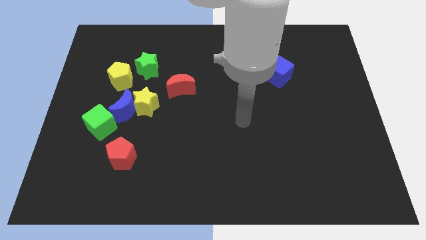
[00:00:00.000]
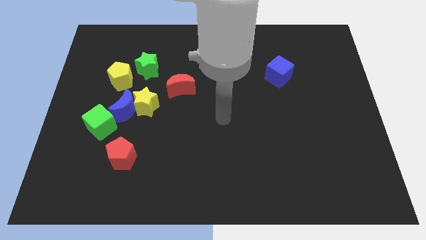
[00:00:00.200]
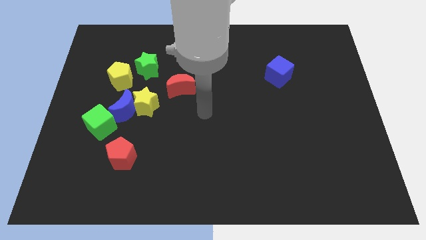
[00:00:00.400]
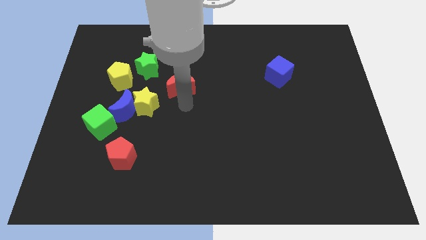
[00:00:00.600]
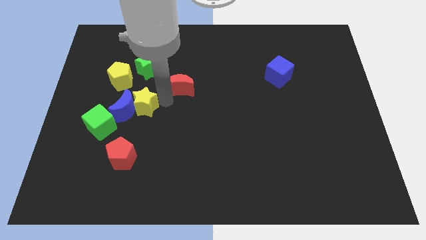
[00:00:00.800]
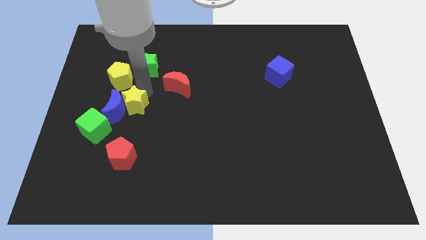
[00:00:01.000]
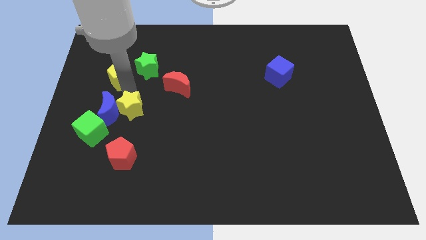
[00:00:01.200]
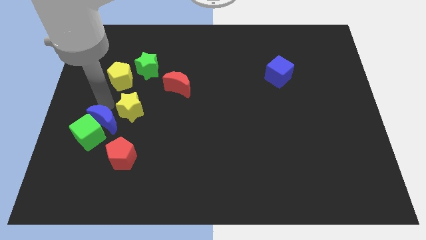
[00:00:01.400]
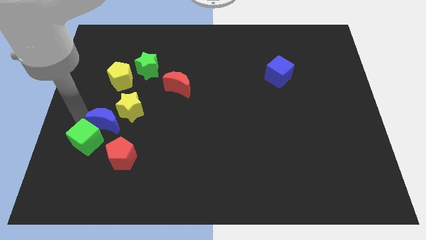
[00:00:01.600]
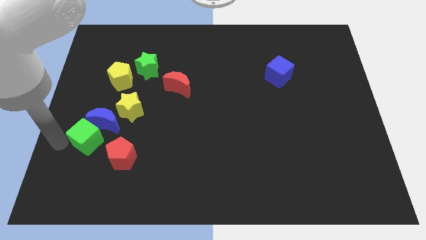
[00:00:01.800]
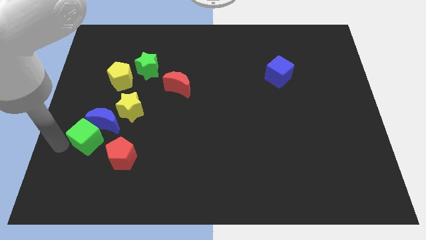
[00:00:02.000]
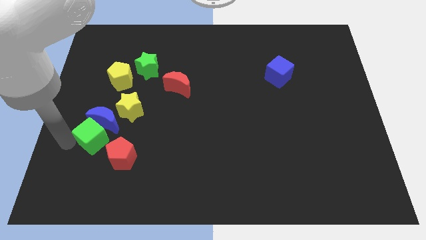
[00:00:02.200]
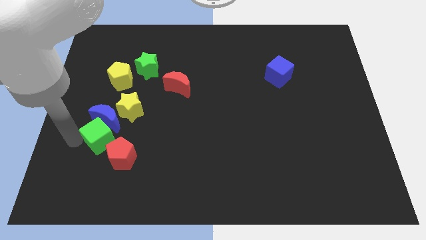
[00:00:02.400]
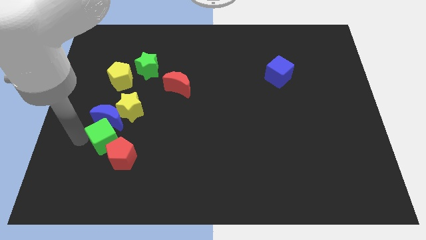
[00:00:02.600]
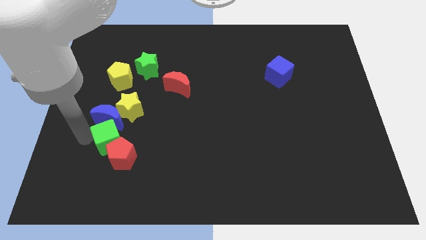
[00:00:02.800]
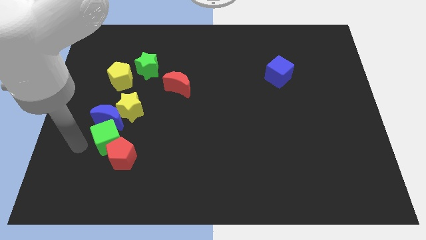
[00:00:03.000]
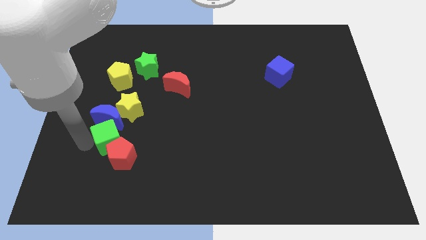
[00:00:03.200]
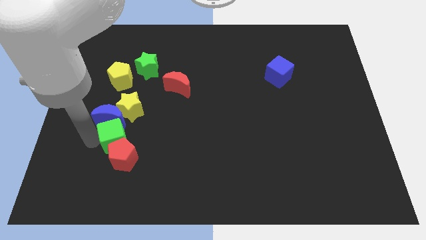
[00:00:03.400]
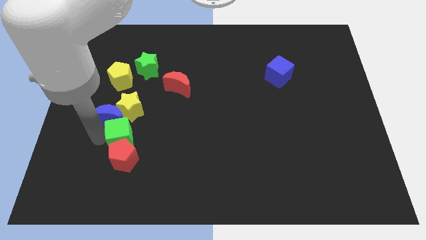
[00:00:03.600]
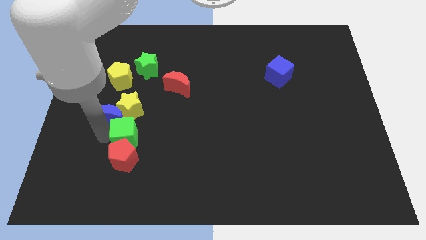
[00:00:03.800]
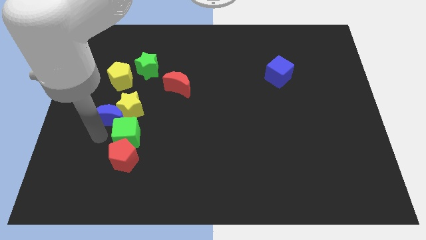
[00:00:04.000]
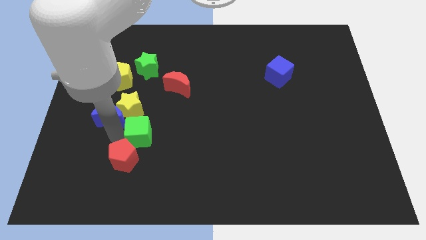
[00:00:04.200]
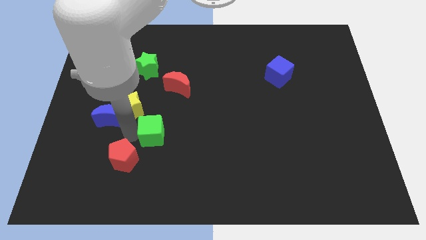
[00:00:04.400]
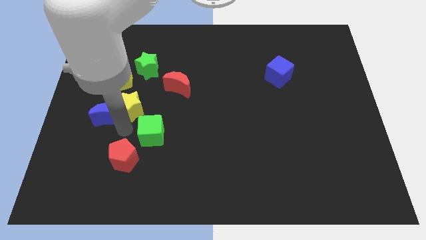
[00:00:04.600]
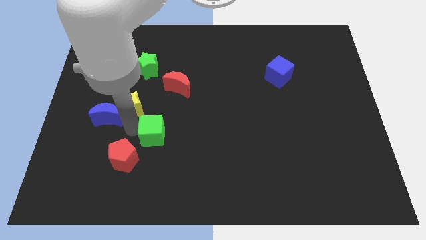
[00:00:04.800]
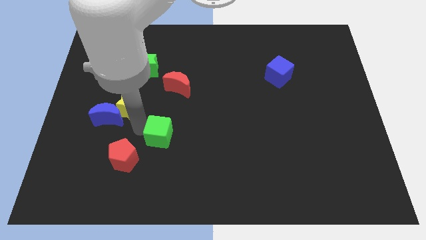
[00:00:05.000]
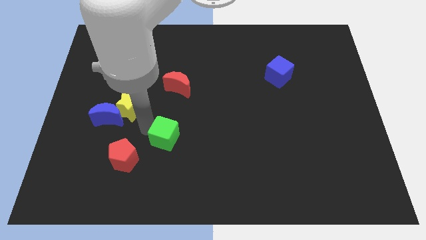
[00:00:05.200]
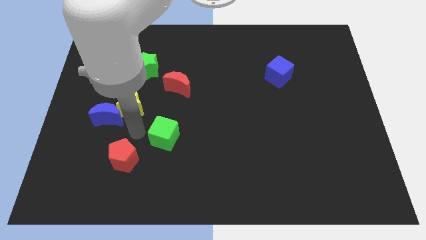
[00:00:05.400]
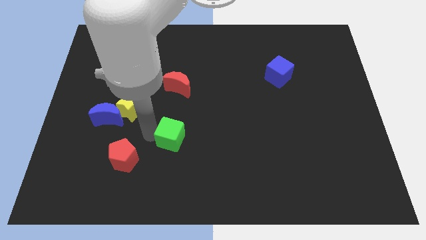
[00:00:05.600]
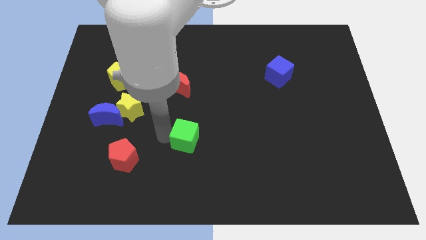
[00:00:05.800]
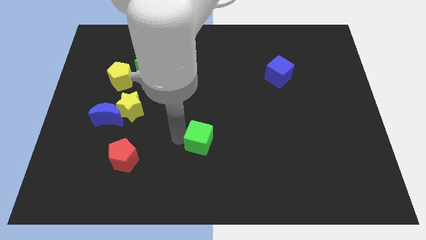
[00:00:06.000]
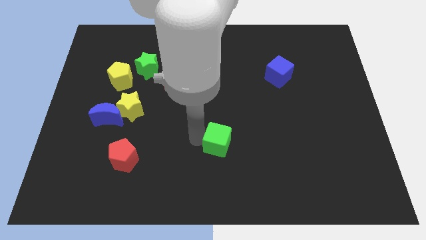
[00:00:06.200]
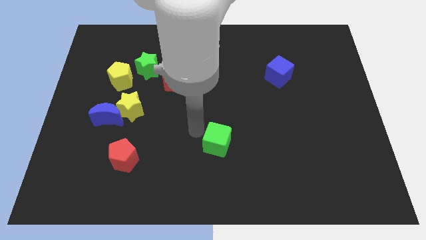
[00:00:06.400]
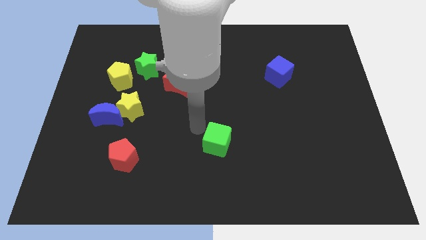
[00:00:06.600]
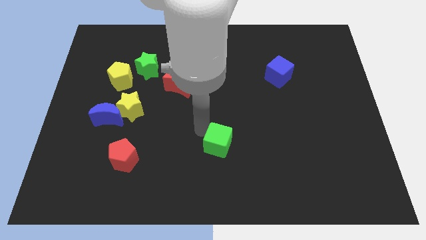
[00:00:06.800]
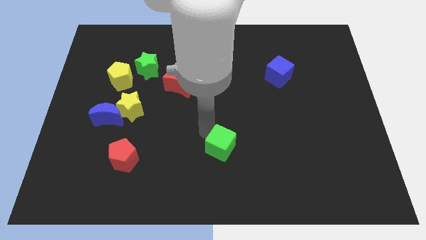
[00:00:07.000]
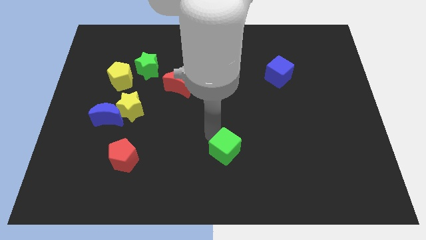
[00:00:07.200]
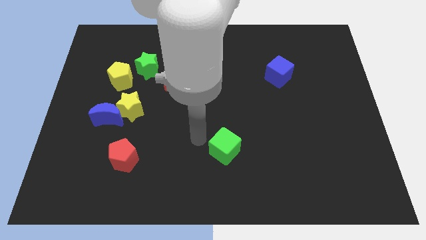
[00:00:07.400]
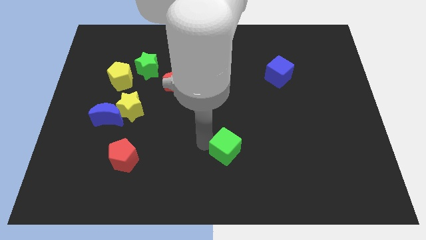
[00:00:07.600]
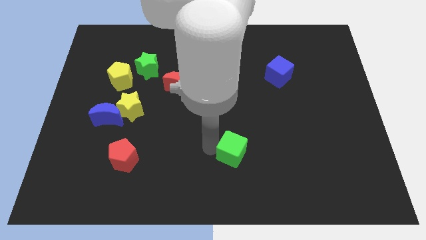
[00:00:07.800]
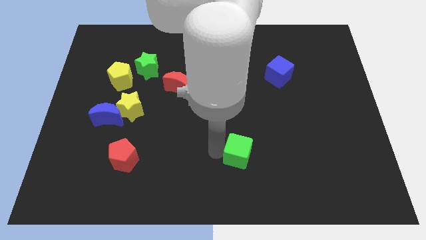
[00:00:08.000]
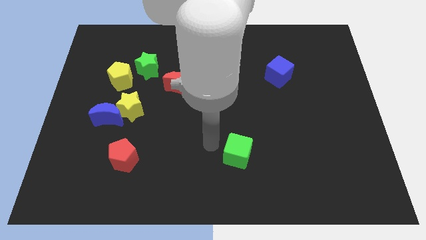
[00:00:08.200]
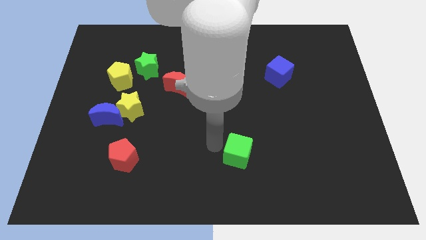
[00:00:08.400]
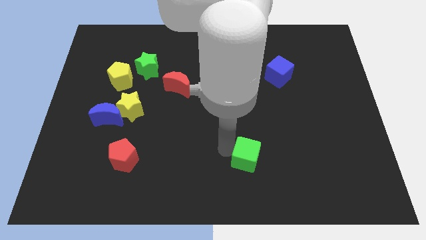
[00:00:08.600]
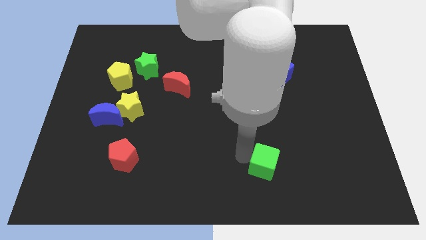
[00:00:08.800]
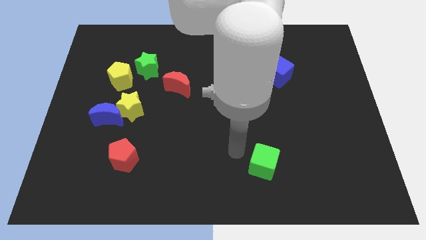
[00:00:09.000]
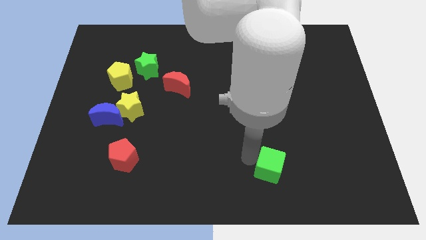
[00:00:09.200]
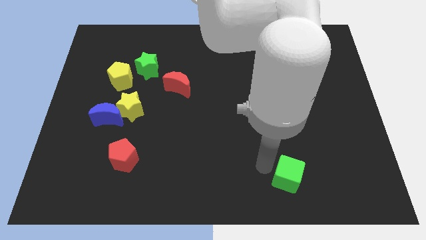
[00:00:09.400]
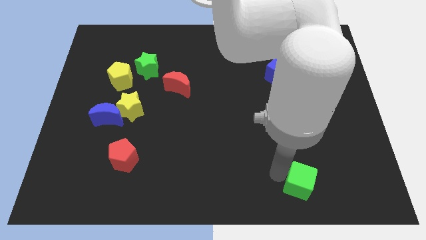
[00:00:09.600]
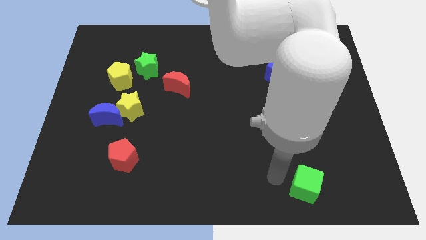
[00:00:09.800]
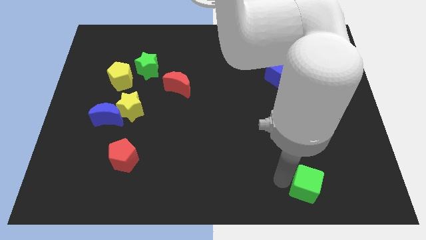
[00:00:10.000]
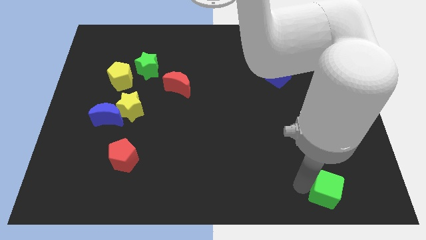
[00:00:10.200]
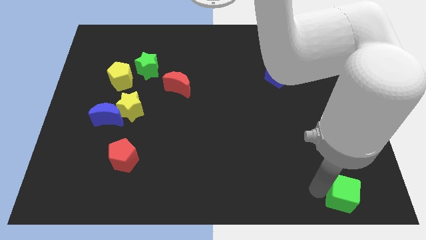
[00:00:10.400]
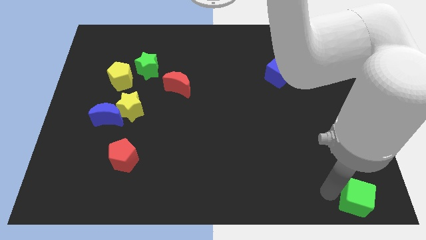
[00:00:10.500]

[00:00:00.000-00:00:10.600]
put the green cube to the bottom right of the board

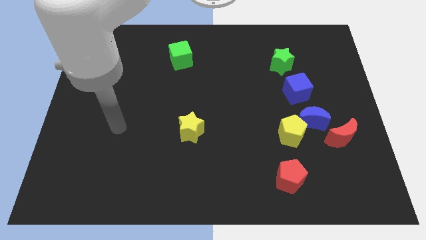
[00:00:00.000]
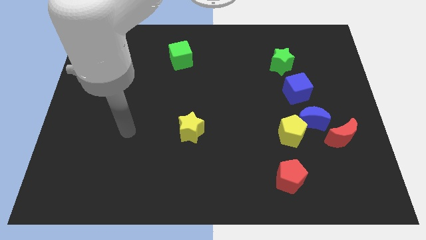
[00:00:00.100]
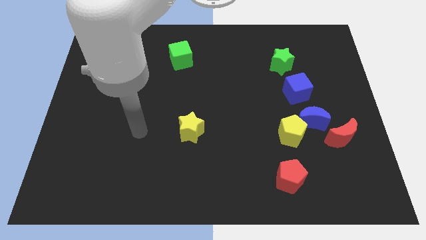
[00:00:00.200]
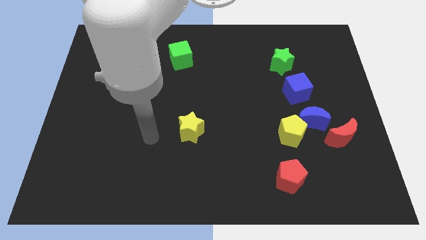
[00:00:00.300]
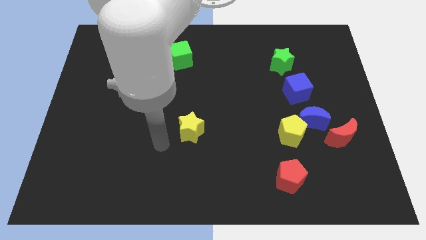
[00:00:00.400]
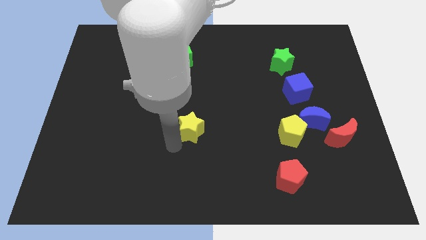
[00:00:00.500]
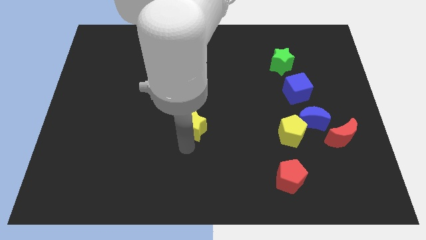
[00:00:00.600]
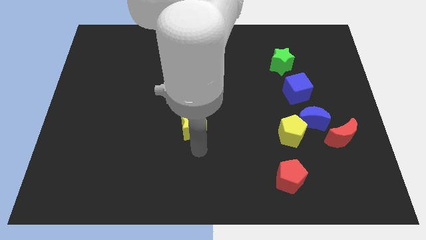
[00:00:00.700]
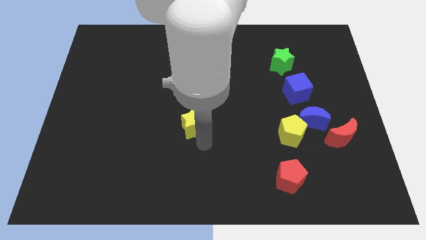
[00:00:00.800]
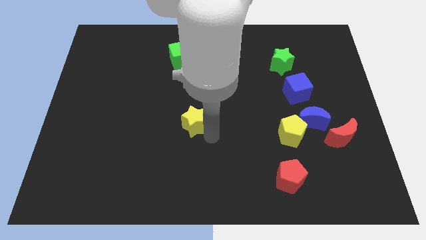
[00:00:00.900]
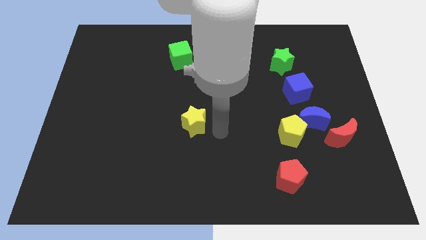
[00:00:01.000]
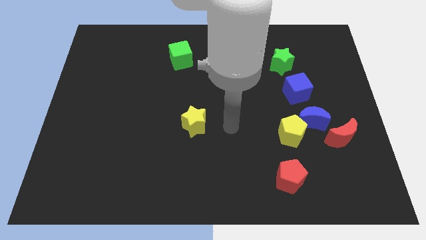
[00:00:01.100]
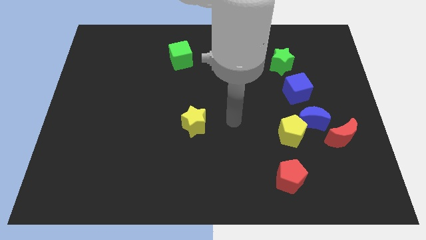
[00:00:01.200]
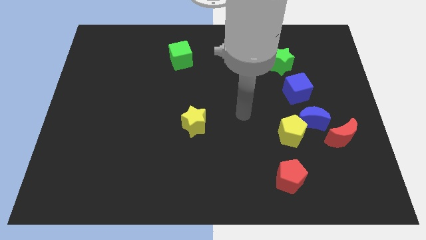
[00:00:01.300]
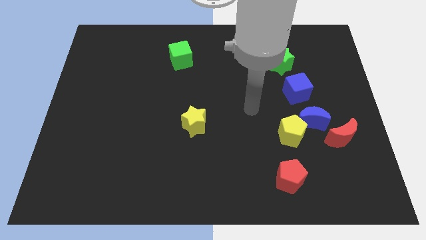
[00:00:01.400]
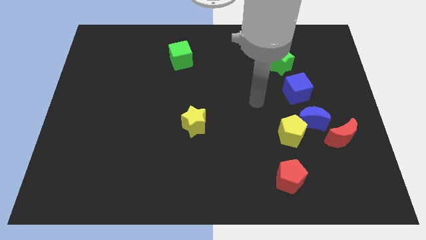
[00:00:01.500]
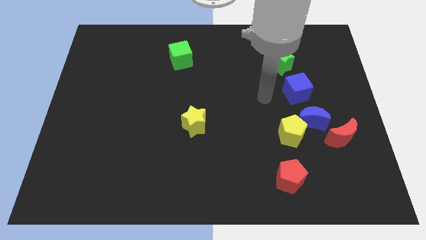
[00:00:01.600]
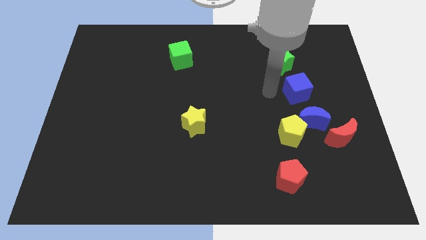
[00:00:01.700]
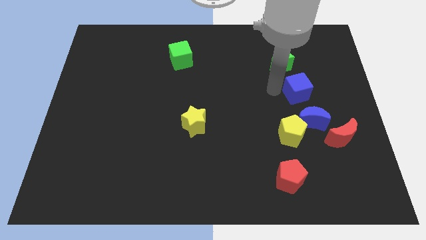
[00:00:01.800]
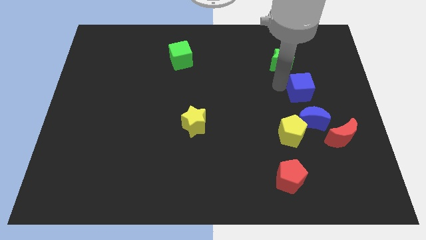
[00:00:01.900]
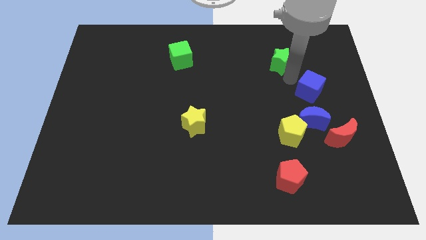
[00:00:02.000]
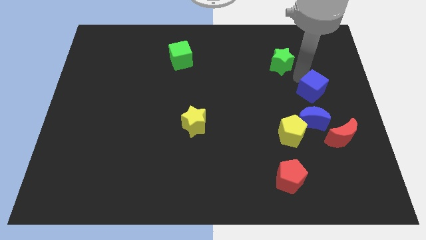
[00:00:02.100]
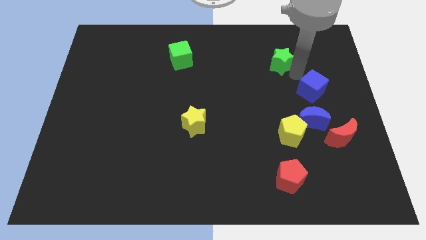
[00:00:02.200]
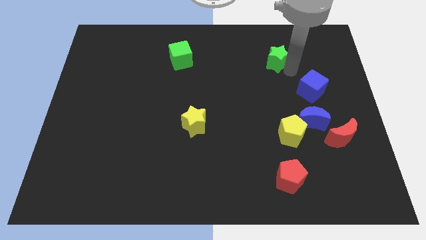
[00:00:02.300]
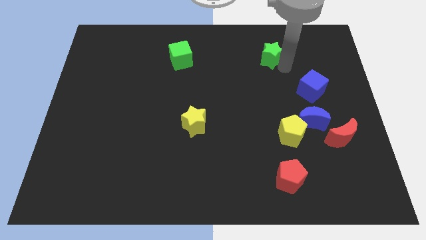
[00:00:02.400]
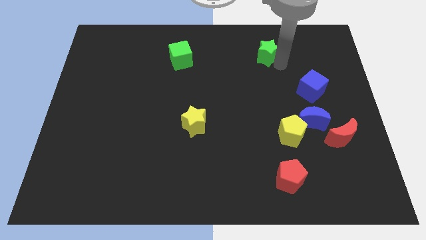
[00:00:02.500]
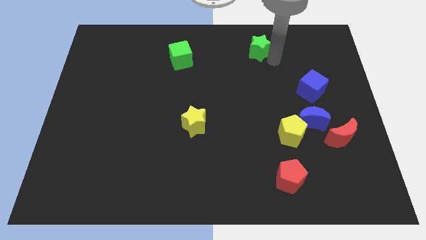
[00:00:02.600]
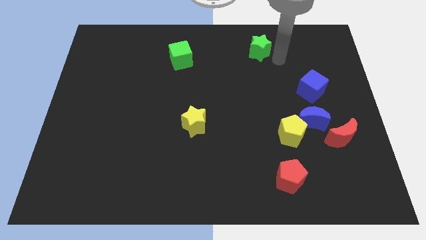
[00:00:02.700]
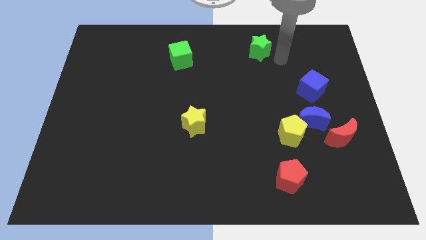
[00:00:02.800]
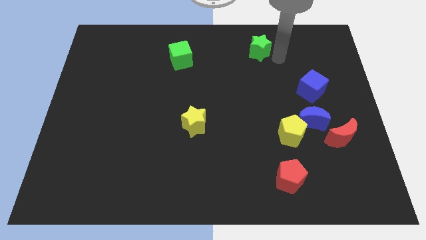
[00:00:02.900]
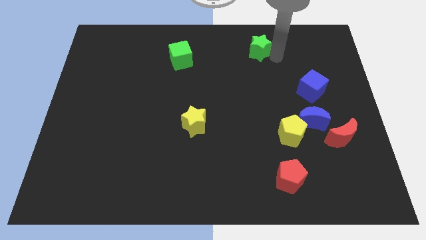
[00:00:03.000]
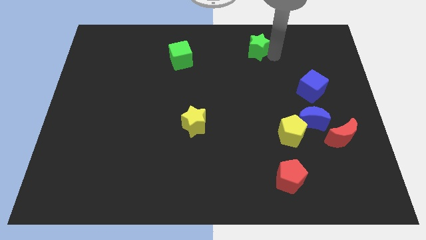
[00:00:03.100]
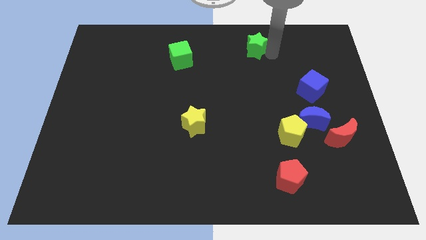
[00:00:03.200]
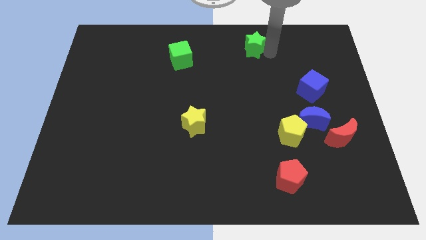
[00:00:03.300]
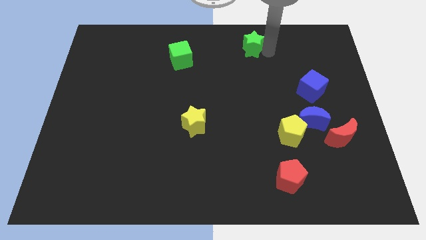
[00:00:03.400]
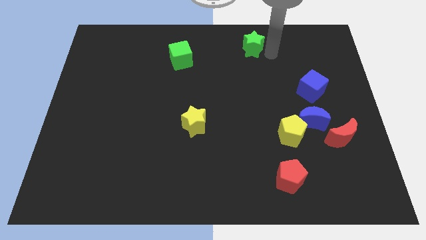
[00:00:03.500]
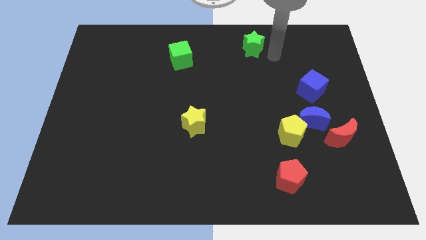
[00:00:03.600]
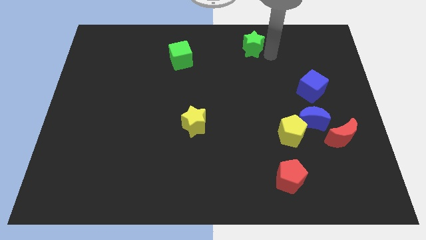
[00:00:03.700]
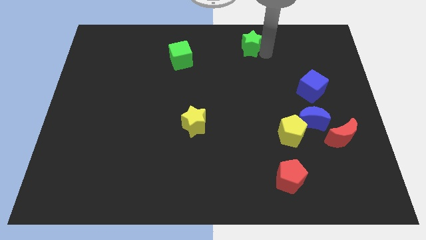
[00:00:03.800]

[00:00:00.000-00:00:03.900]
slide the green star to the top side
